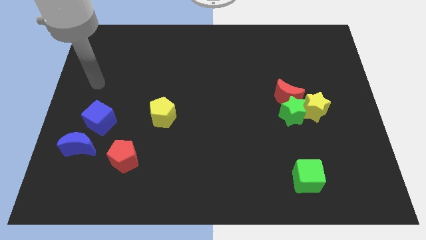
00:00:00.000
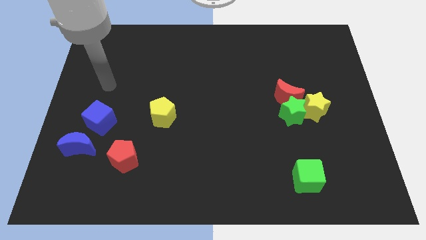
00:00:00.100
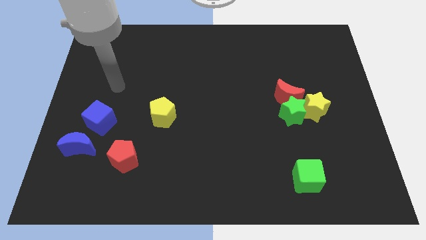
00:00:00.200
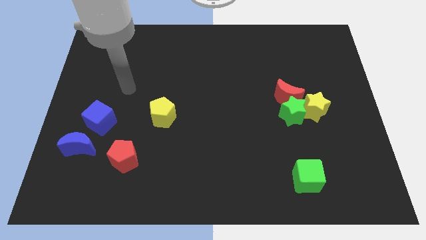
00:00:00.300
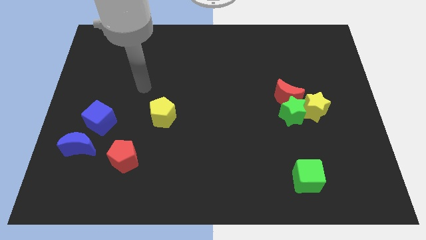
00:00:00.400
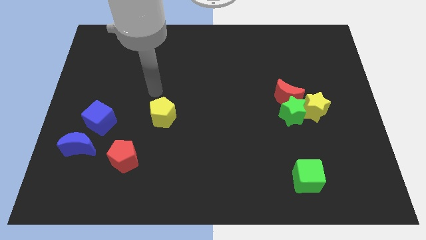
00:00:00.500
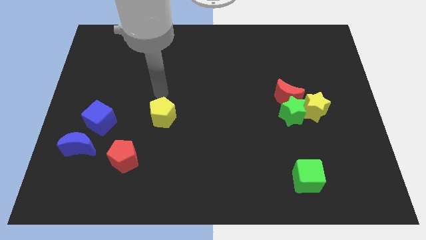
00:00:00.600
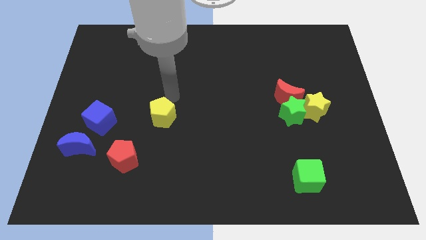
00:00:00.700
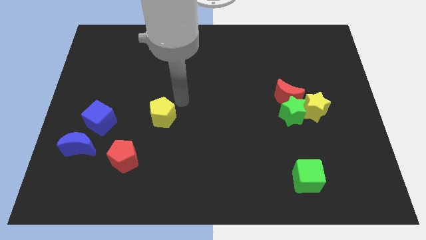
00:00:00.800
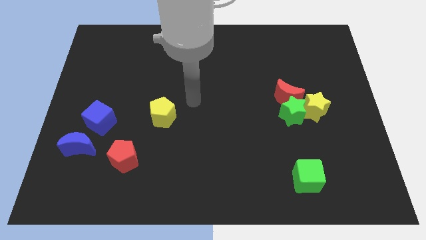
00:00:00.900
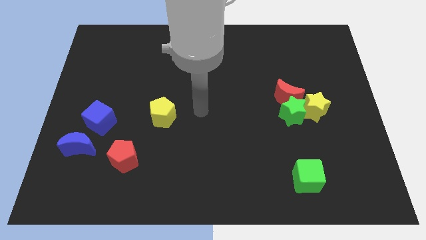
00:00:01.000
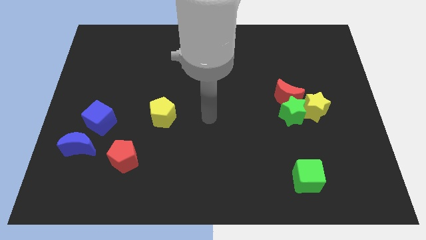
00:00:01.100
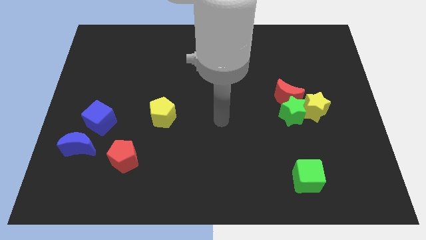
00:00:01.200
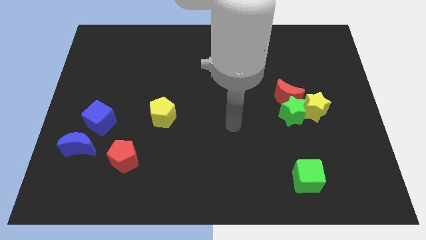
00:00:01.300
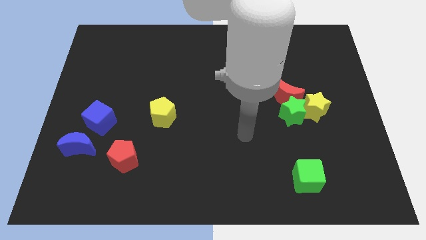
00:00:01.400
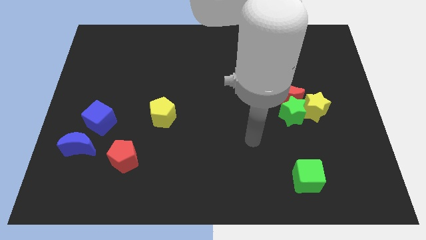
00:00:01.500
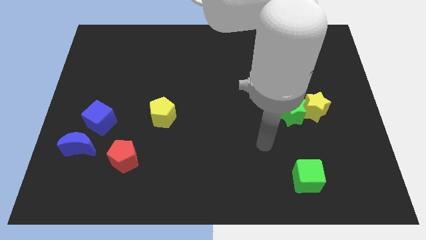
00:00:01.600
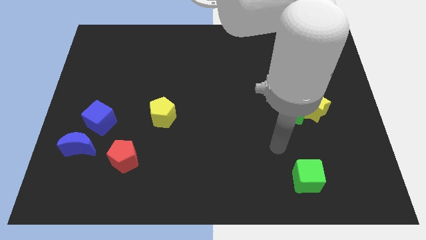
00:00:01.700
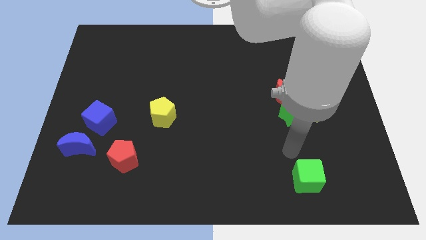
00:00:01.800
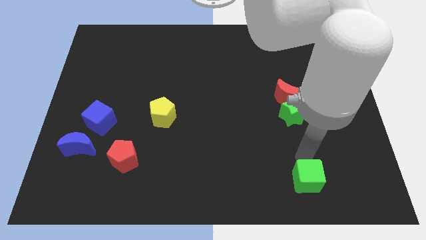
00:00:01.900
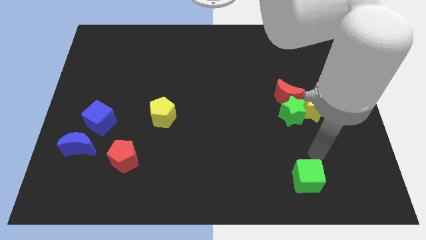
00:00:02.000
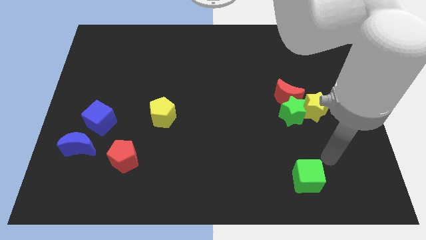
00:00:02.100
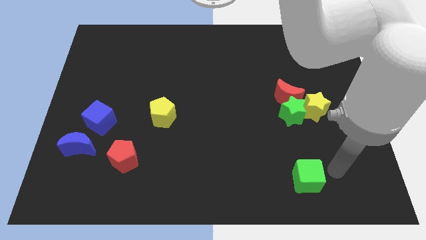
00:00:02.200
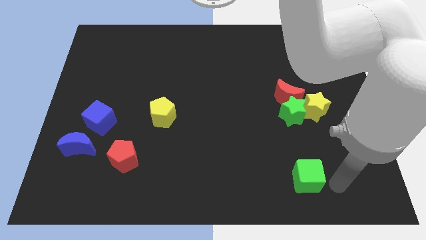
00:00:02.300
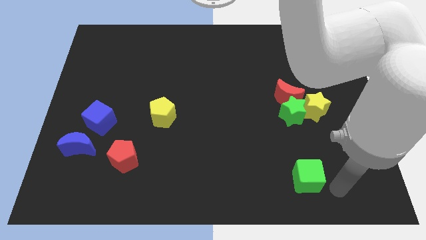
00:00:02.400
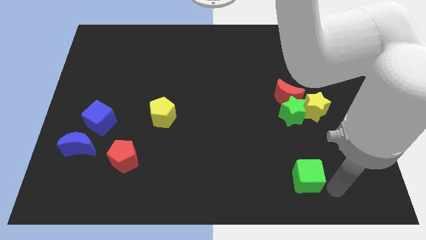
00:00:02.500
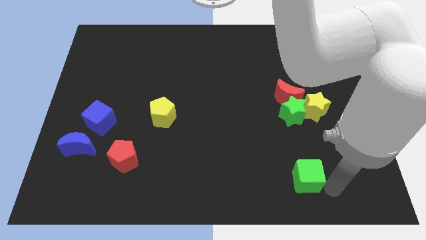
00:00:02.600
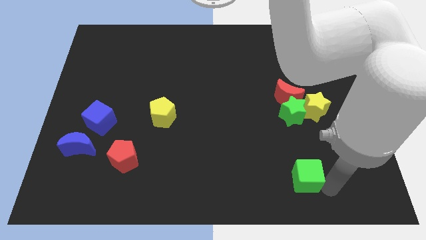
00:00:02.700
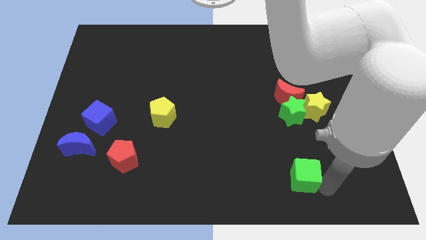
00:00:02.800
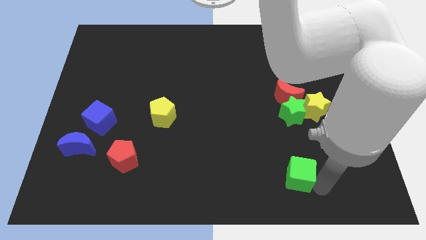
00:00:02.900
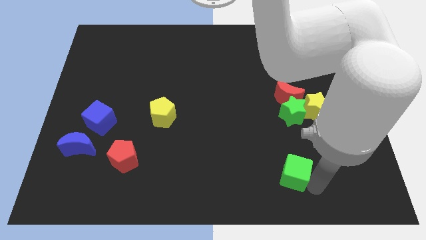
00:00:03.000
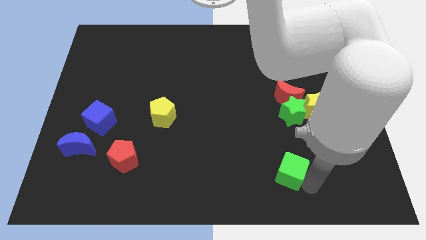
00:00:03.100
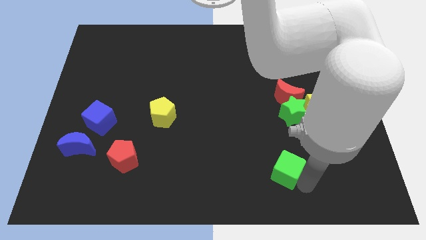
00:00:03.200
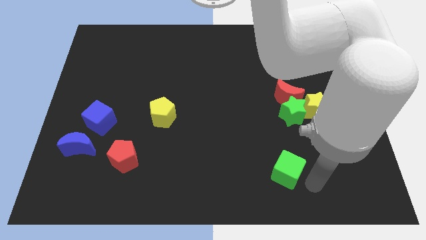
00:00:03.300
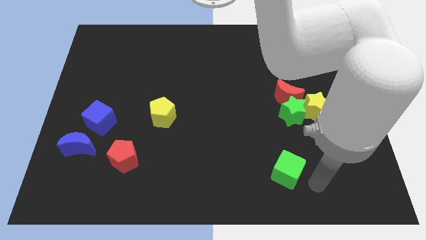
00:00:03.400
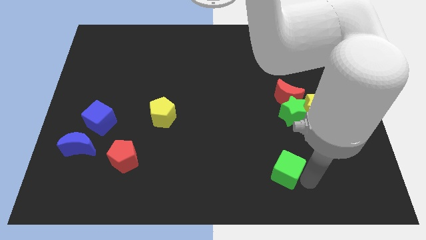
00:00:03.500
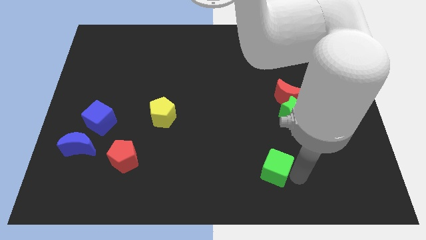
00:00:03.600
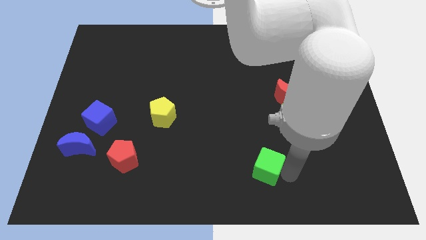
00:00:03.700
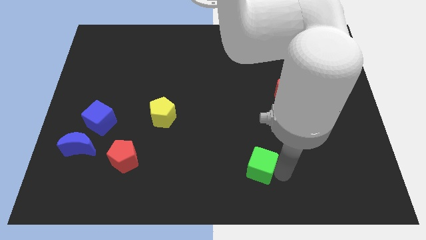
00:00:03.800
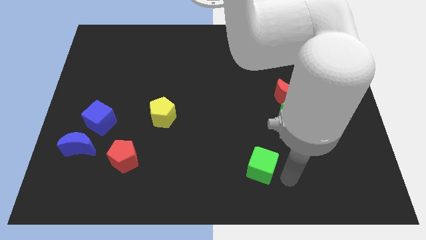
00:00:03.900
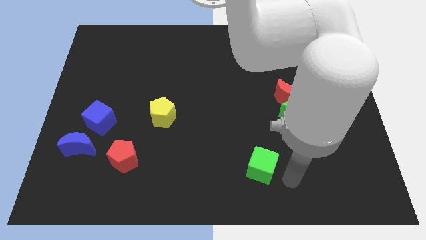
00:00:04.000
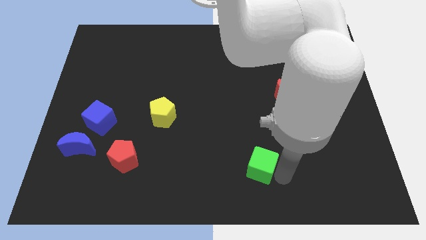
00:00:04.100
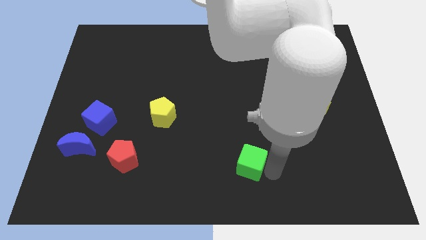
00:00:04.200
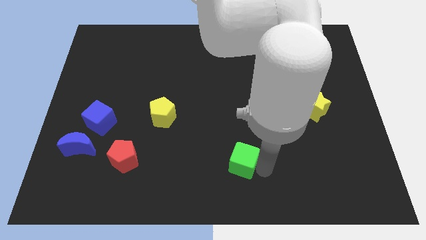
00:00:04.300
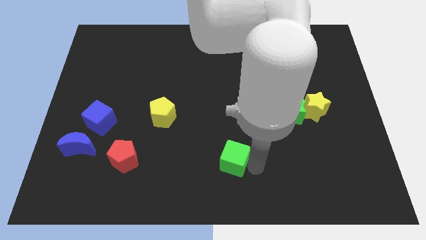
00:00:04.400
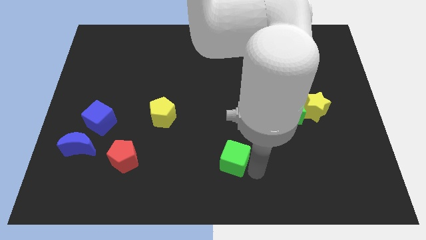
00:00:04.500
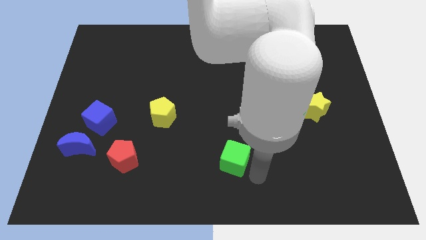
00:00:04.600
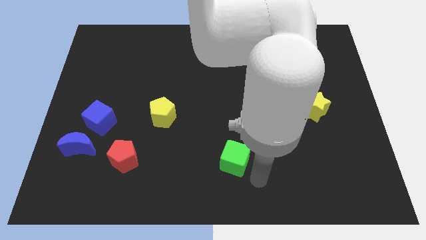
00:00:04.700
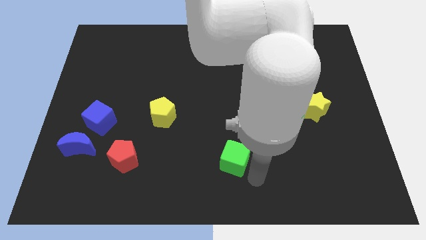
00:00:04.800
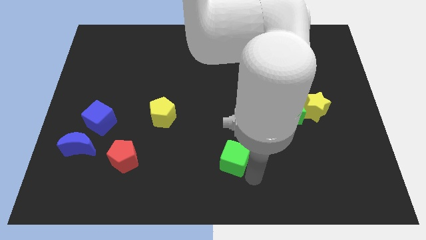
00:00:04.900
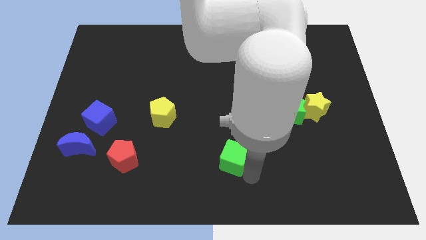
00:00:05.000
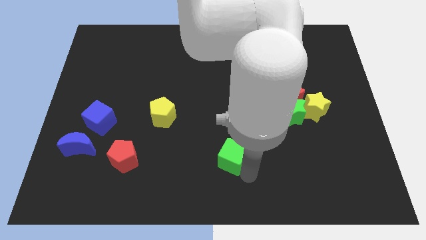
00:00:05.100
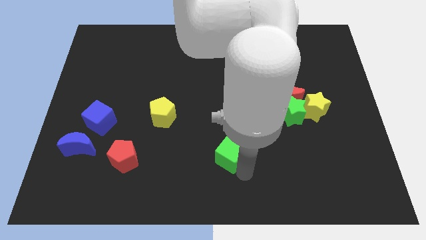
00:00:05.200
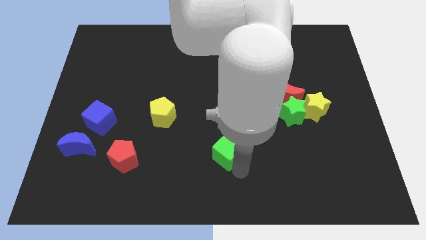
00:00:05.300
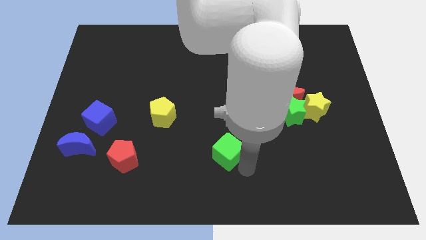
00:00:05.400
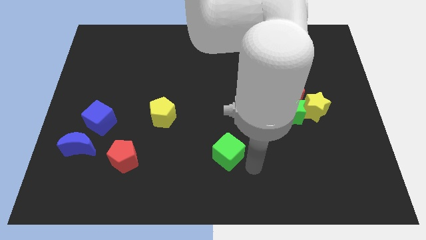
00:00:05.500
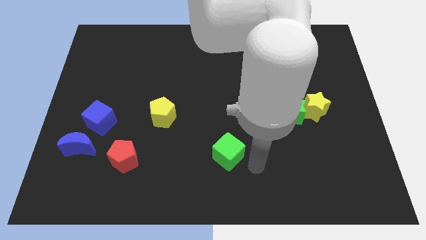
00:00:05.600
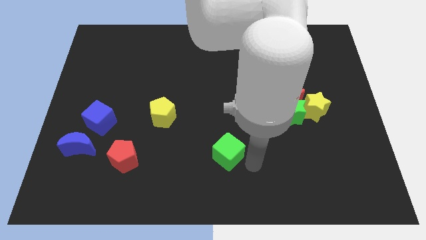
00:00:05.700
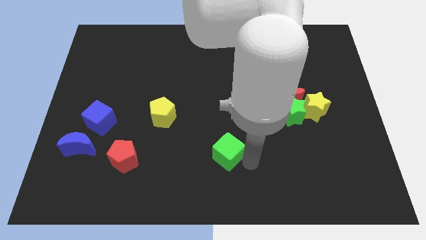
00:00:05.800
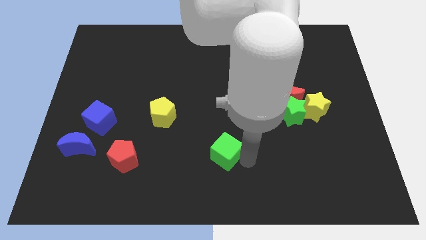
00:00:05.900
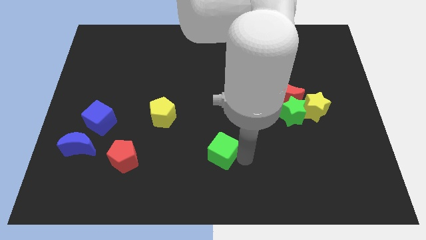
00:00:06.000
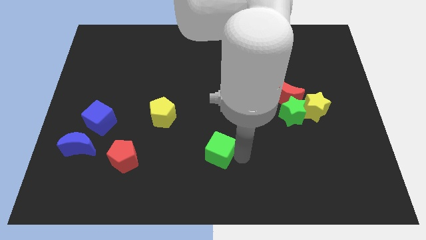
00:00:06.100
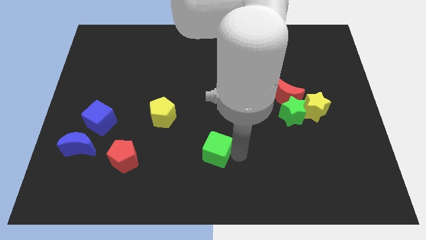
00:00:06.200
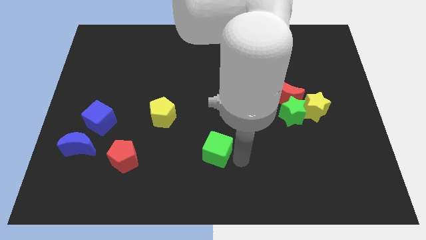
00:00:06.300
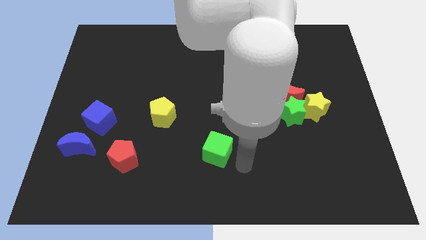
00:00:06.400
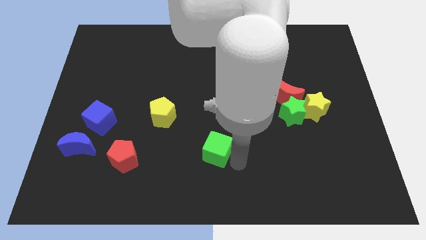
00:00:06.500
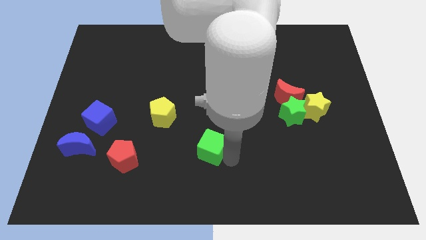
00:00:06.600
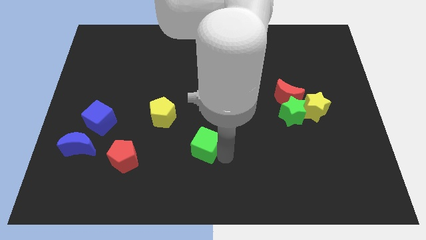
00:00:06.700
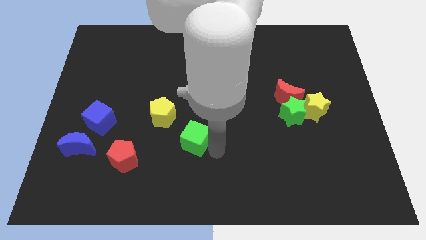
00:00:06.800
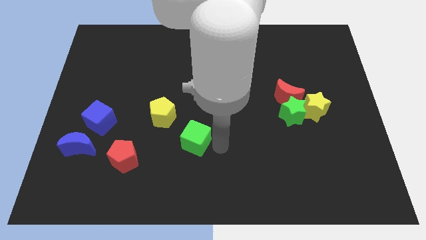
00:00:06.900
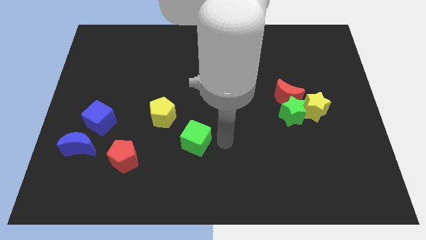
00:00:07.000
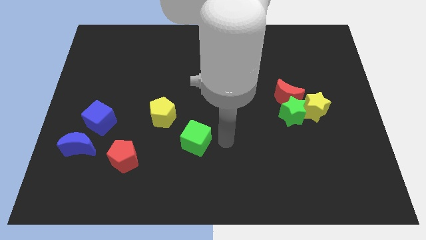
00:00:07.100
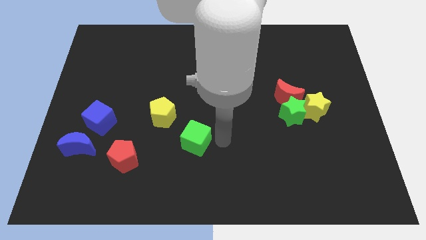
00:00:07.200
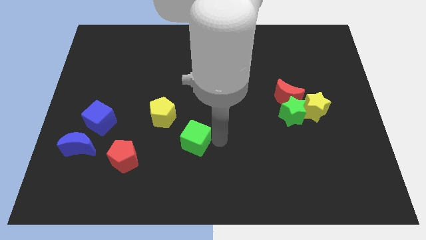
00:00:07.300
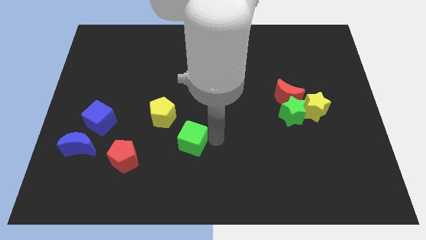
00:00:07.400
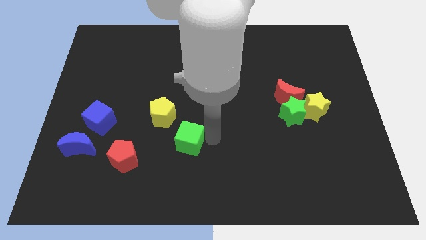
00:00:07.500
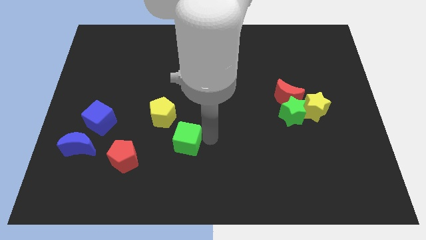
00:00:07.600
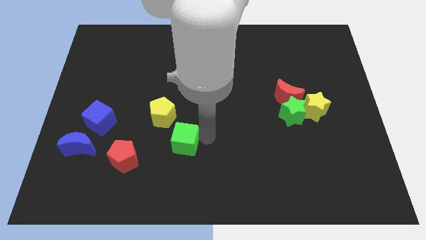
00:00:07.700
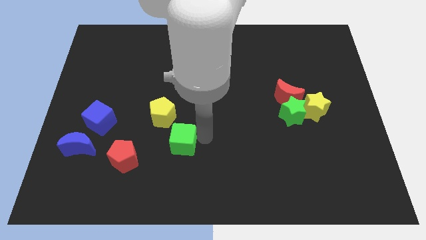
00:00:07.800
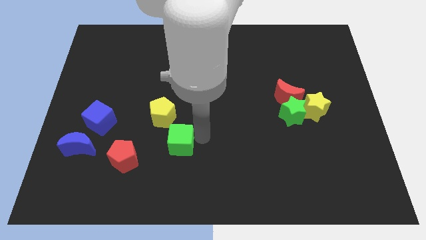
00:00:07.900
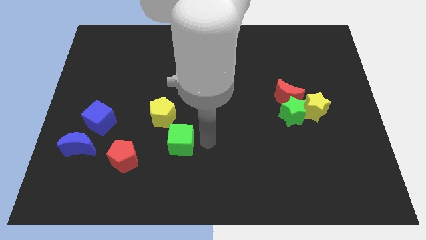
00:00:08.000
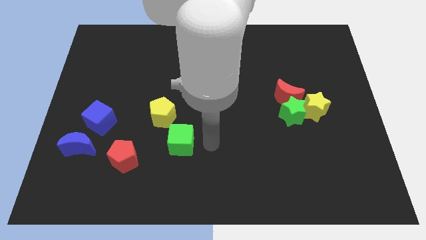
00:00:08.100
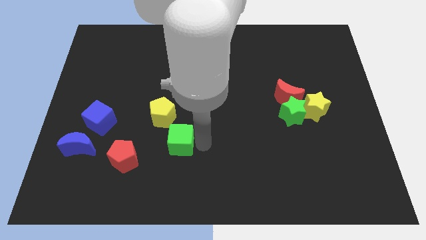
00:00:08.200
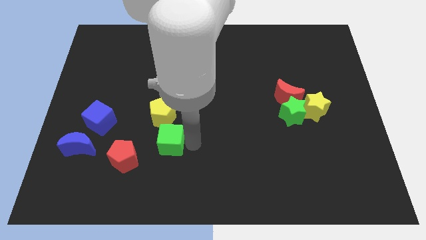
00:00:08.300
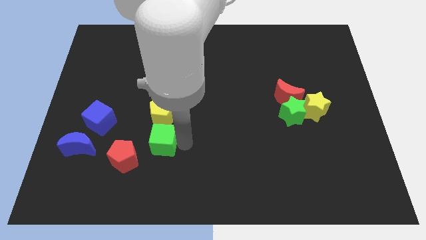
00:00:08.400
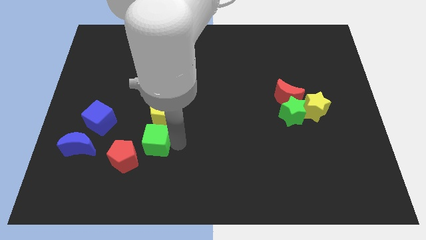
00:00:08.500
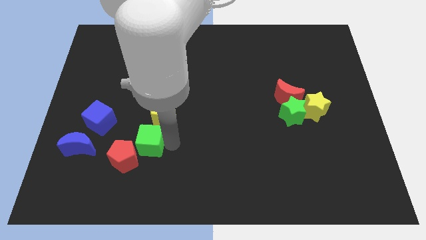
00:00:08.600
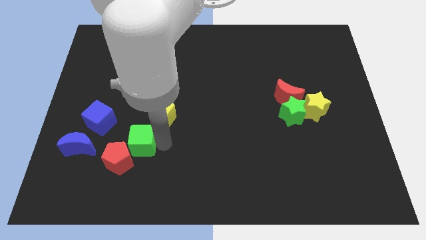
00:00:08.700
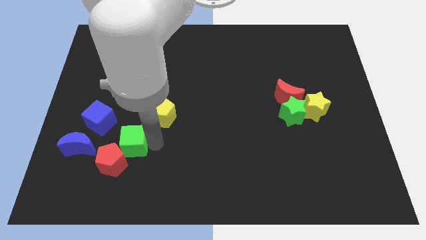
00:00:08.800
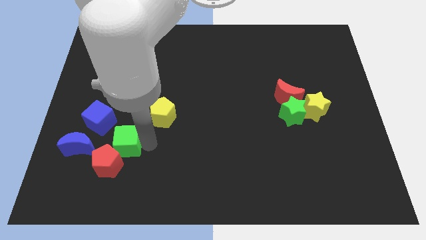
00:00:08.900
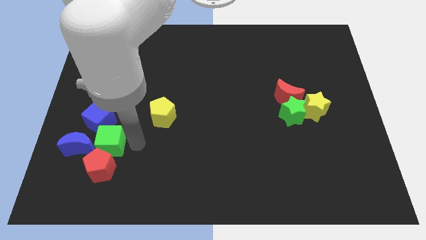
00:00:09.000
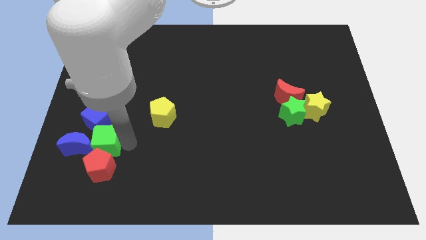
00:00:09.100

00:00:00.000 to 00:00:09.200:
put the green cube next to the blue moon
